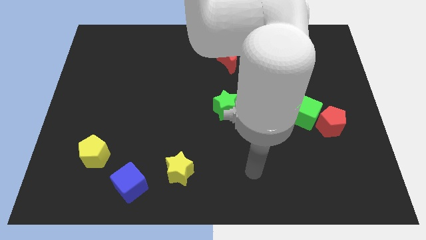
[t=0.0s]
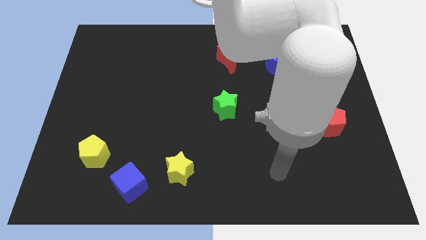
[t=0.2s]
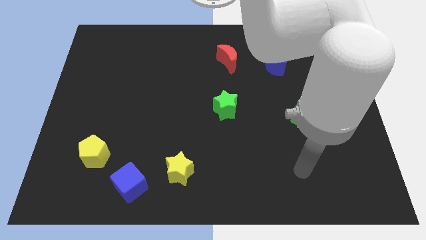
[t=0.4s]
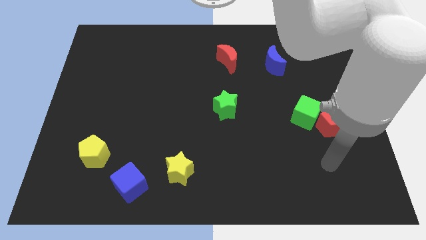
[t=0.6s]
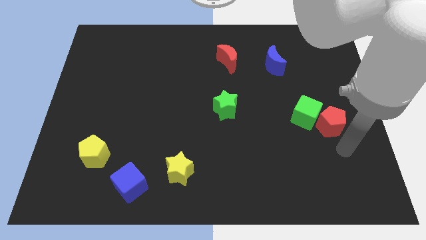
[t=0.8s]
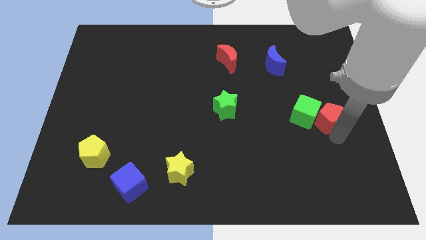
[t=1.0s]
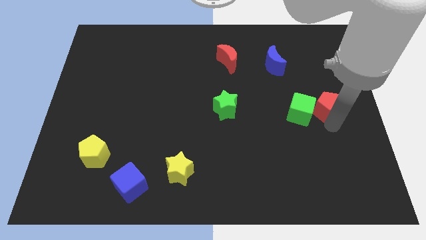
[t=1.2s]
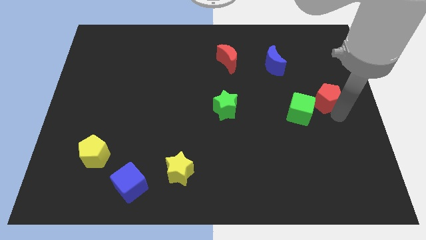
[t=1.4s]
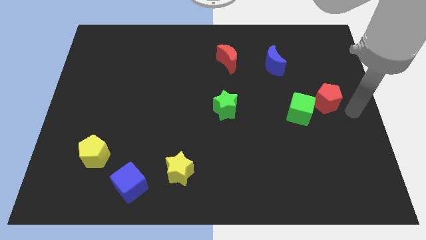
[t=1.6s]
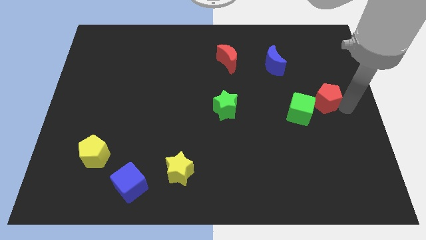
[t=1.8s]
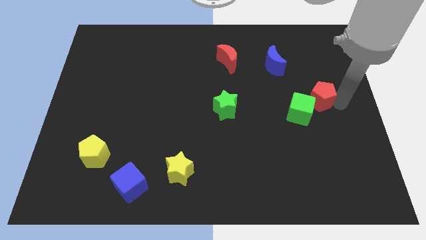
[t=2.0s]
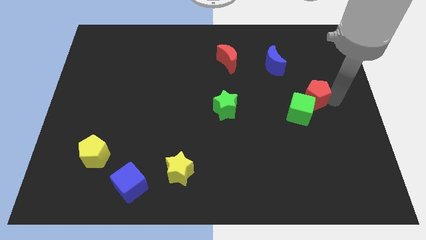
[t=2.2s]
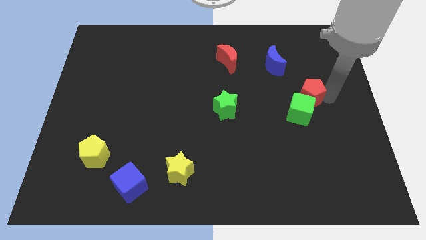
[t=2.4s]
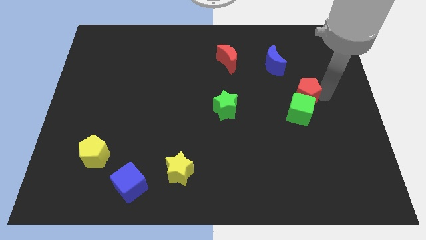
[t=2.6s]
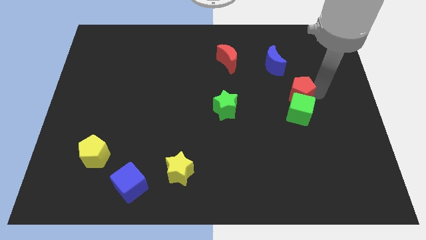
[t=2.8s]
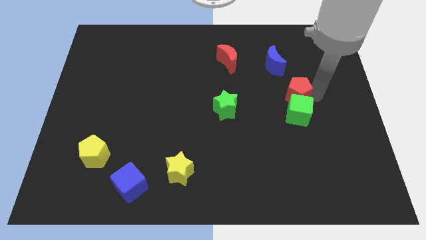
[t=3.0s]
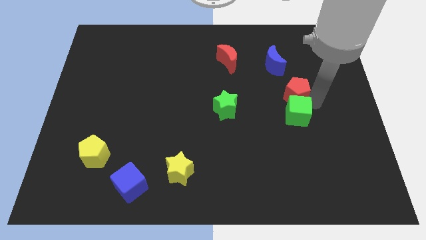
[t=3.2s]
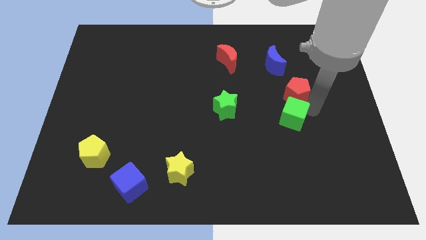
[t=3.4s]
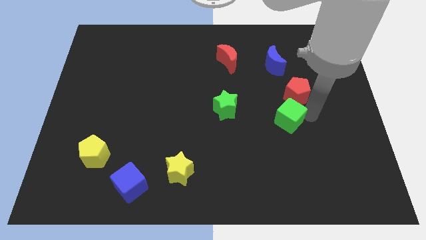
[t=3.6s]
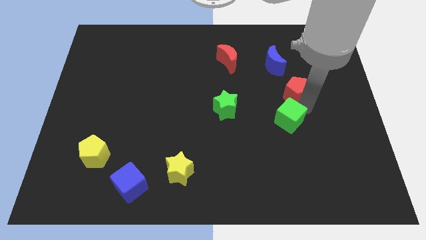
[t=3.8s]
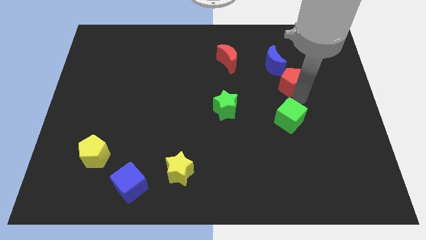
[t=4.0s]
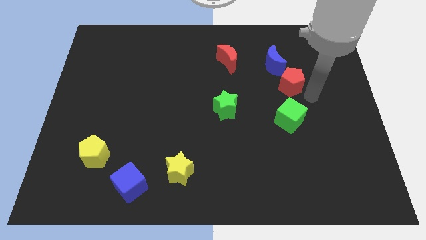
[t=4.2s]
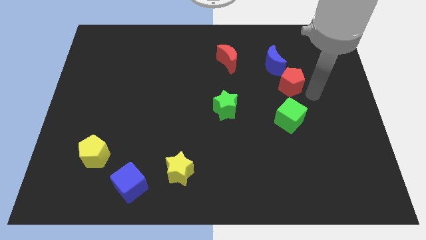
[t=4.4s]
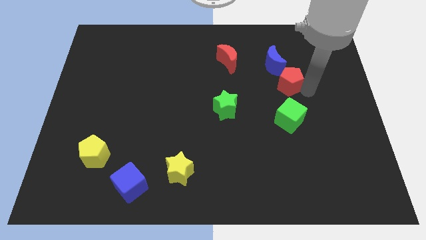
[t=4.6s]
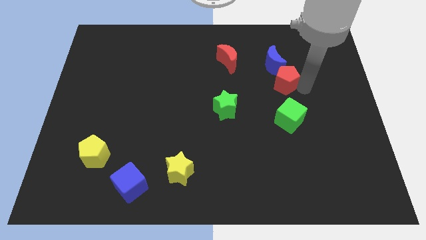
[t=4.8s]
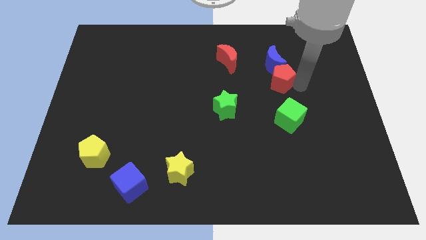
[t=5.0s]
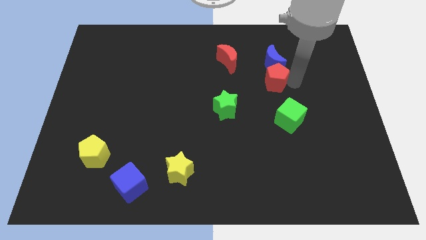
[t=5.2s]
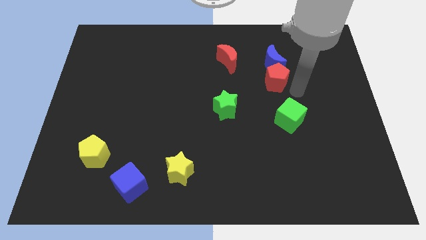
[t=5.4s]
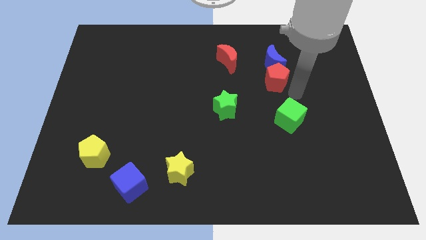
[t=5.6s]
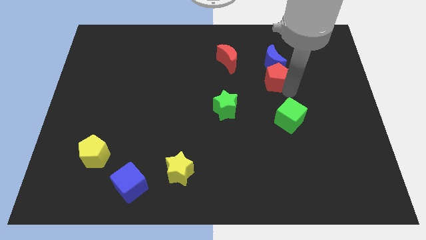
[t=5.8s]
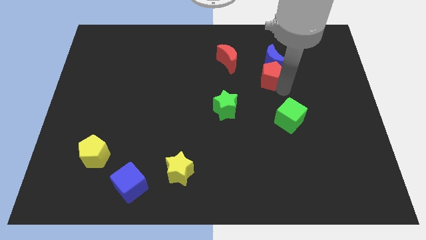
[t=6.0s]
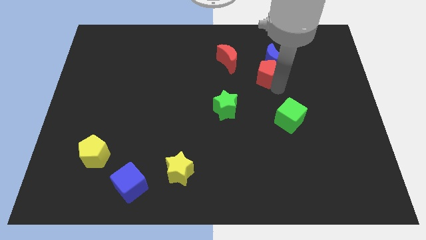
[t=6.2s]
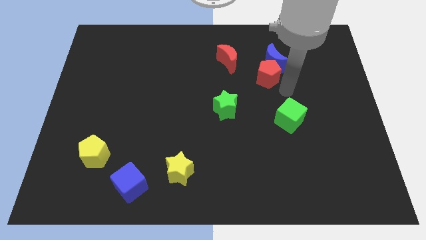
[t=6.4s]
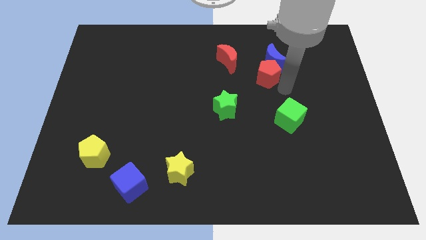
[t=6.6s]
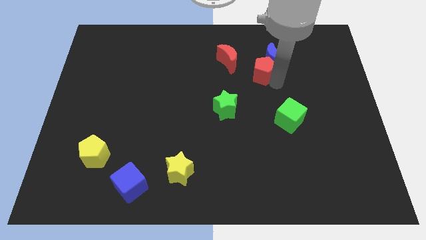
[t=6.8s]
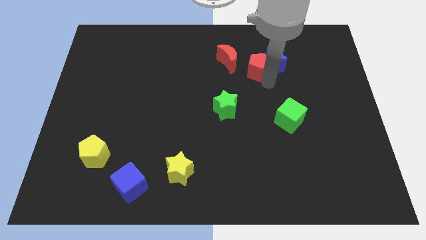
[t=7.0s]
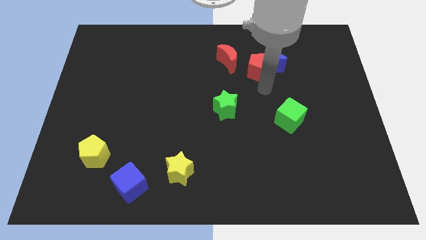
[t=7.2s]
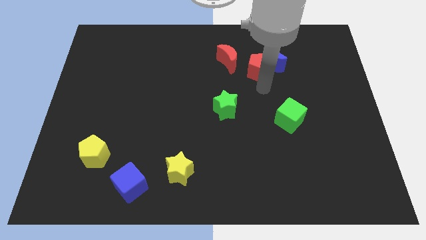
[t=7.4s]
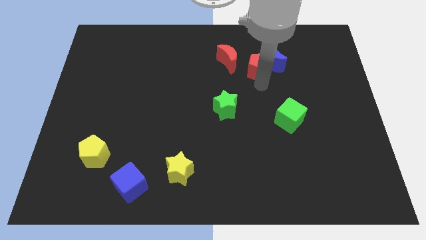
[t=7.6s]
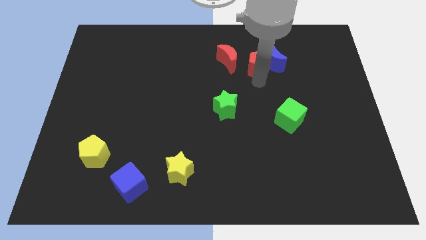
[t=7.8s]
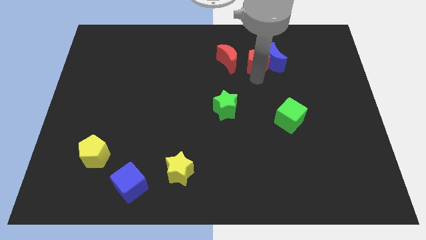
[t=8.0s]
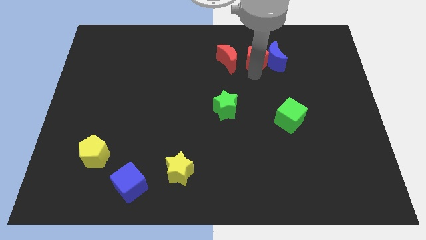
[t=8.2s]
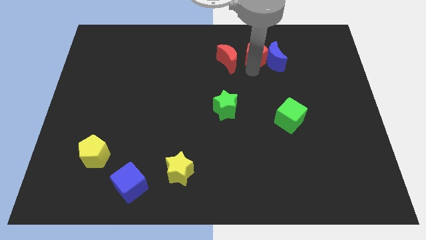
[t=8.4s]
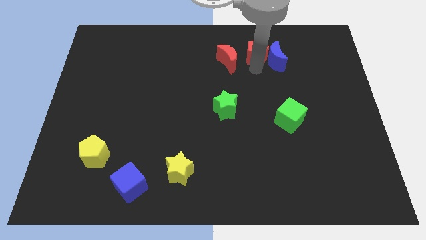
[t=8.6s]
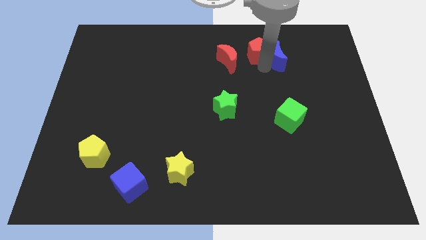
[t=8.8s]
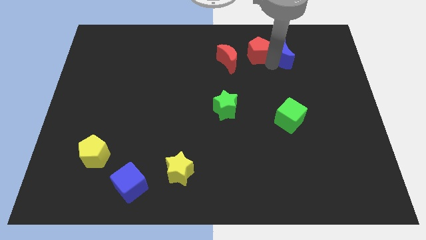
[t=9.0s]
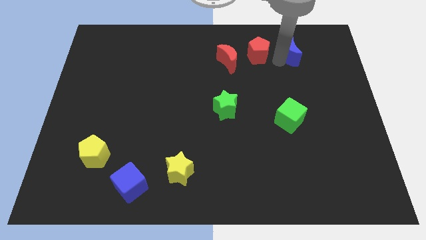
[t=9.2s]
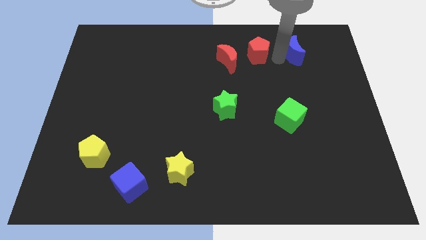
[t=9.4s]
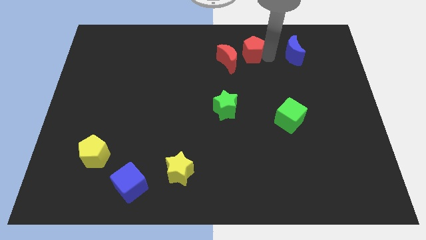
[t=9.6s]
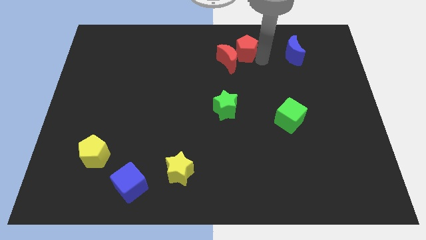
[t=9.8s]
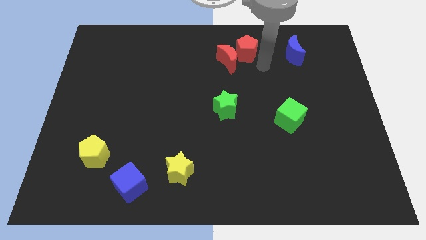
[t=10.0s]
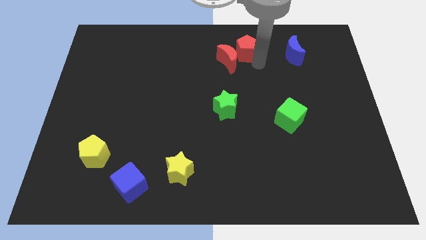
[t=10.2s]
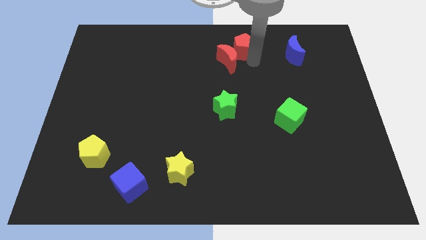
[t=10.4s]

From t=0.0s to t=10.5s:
push the red pentagon to the top
